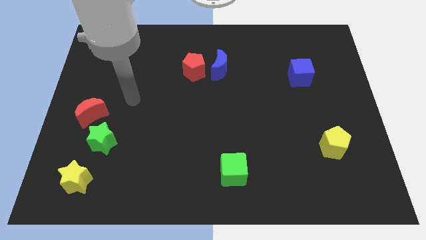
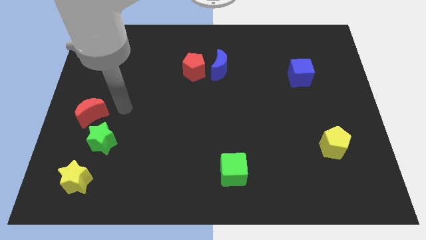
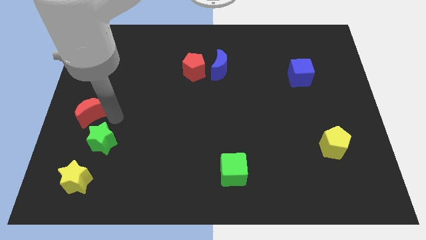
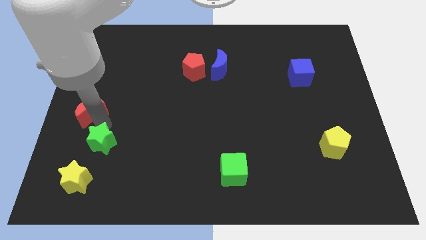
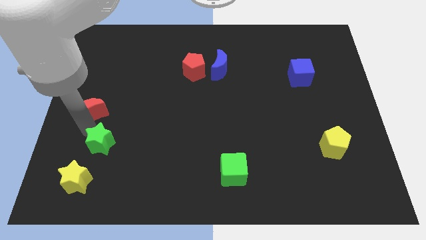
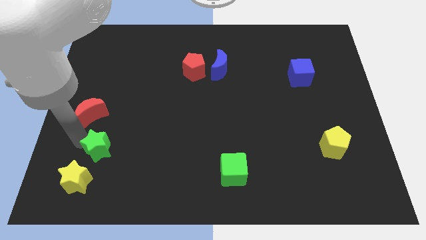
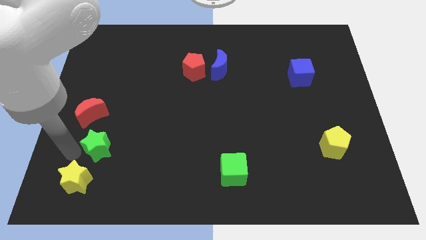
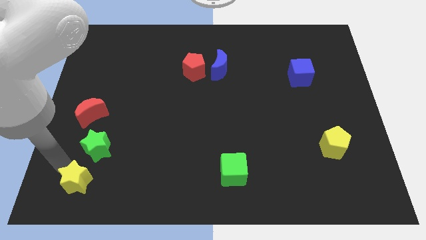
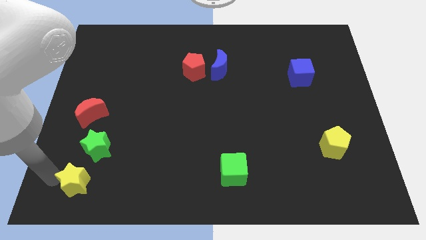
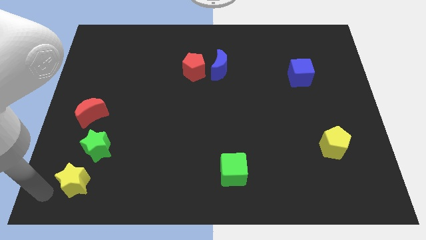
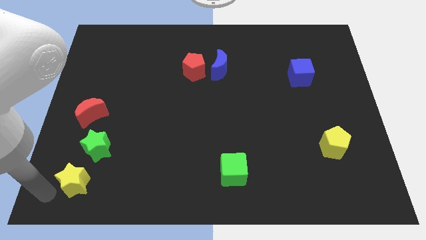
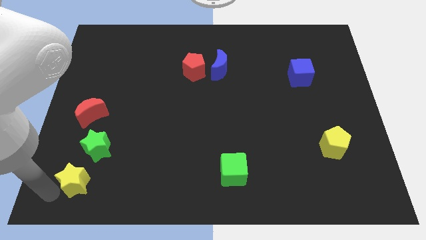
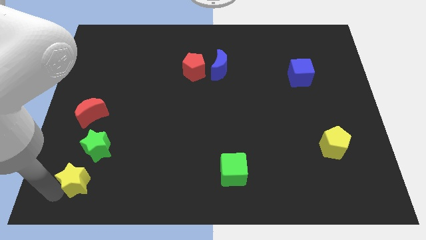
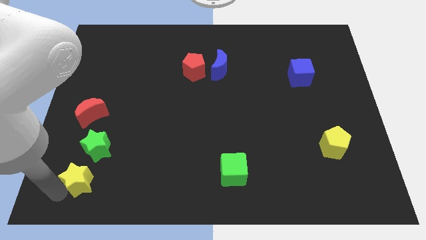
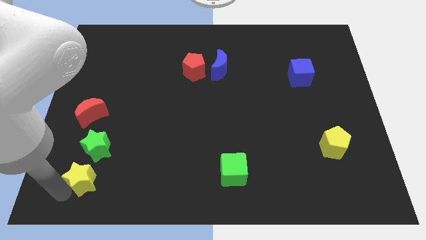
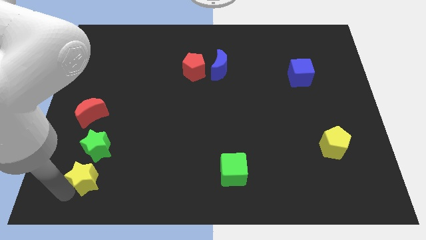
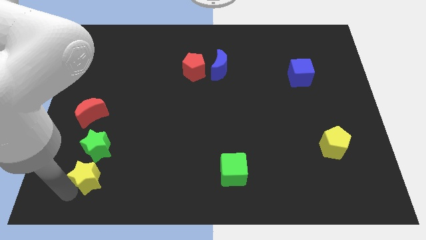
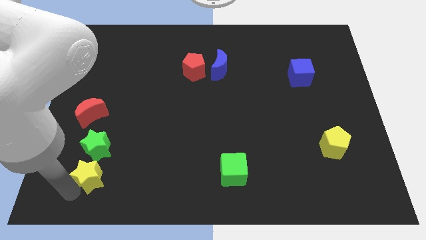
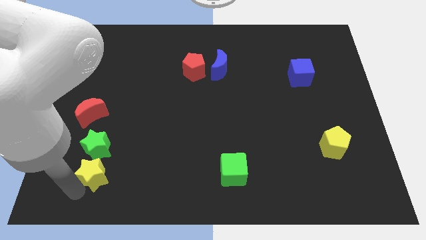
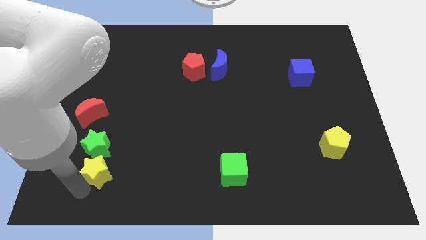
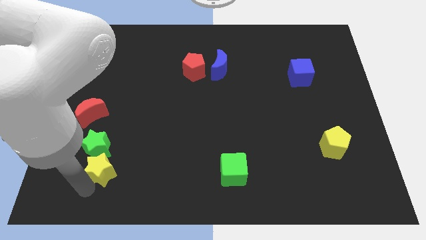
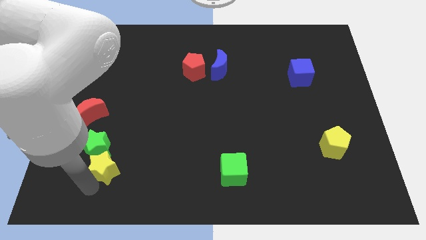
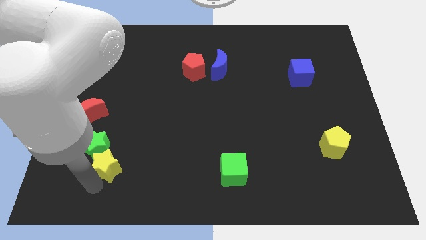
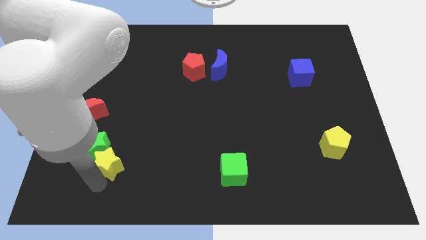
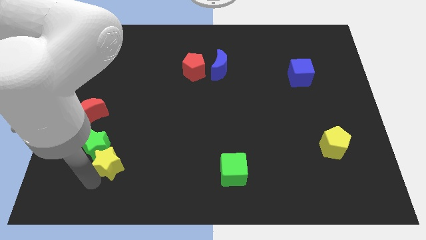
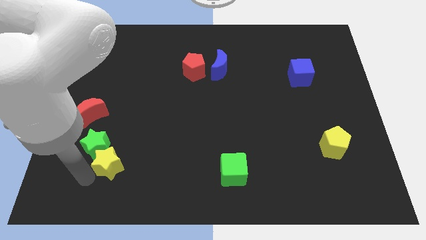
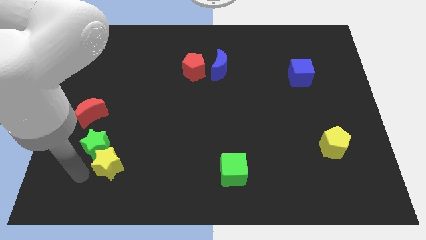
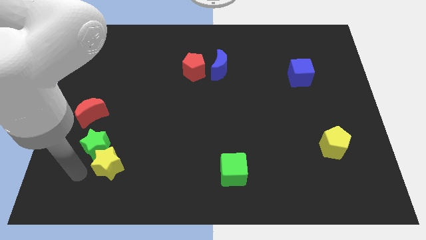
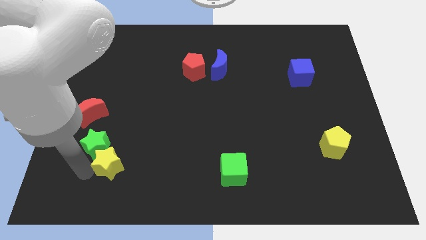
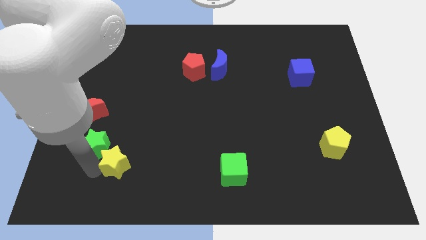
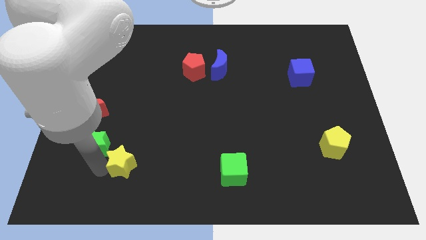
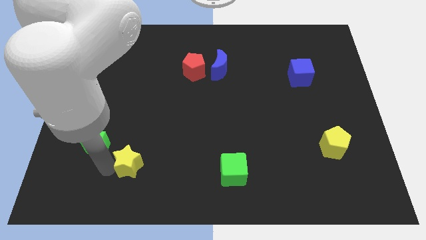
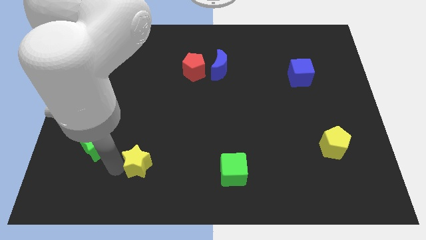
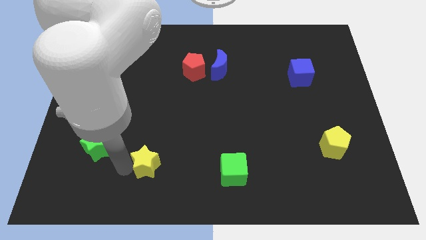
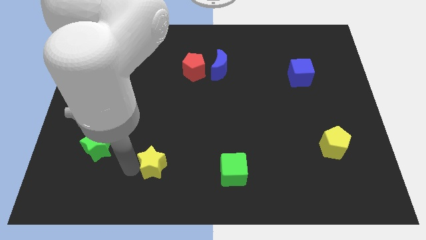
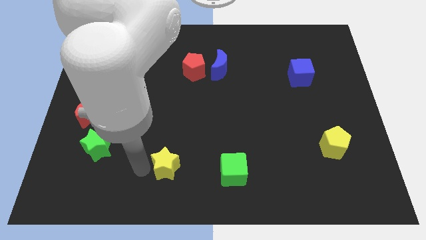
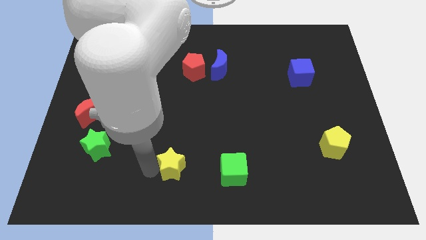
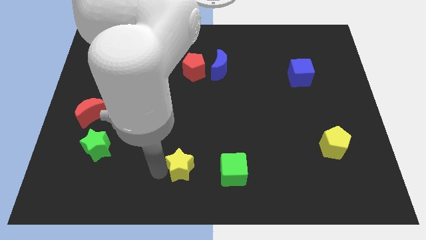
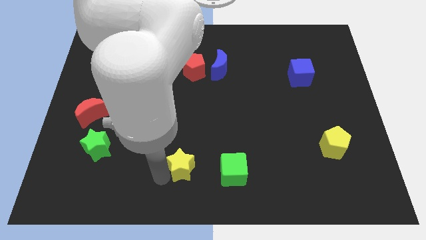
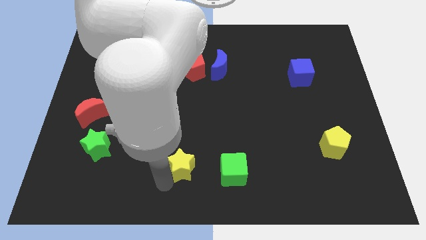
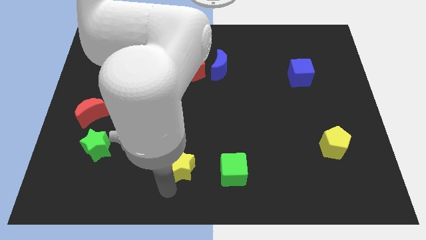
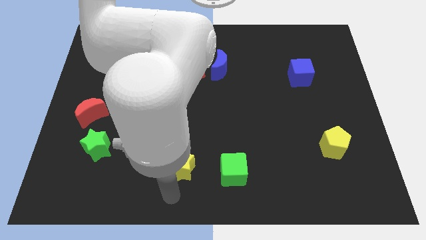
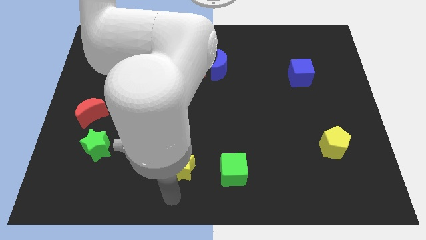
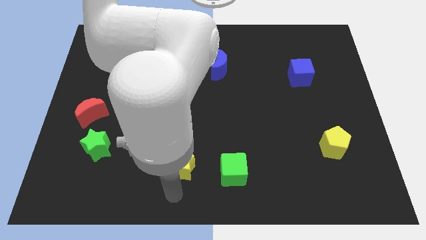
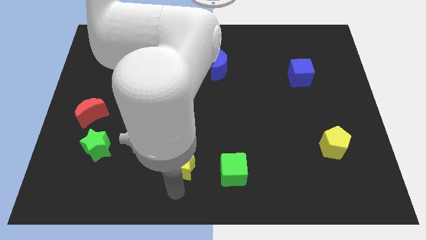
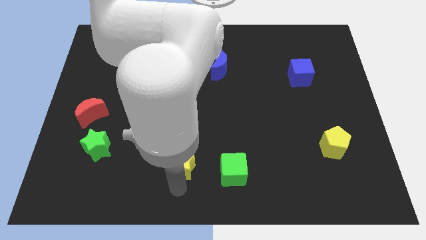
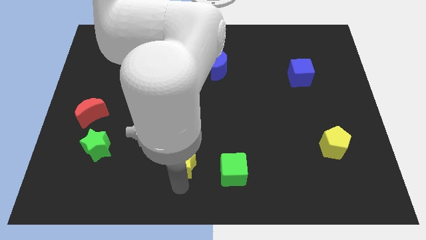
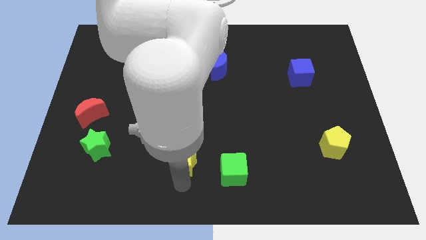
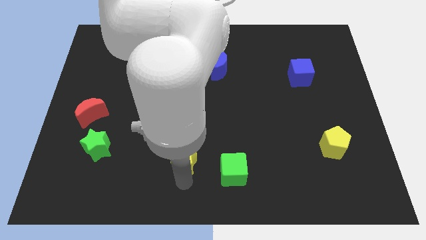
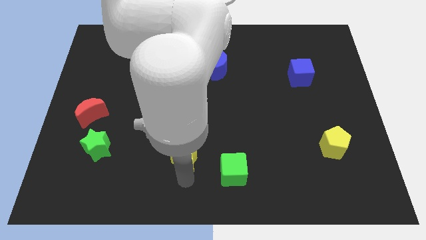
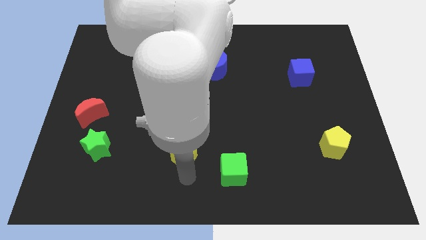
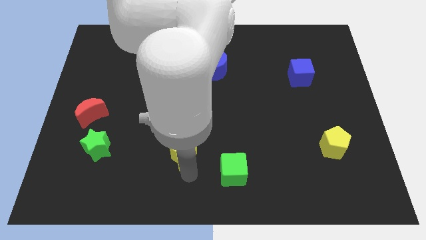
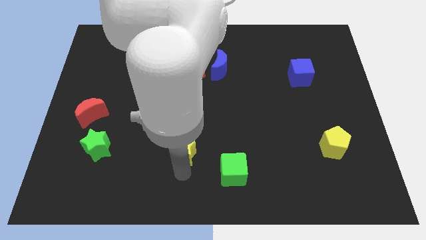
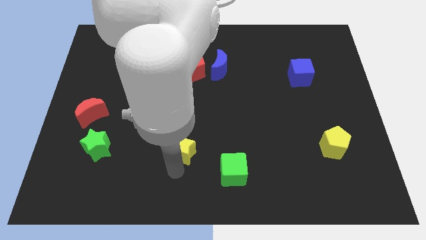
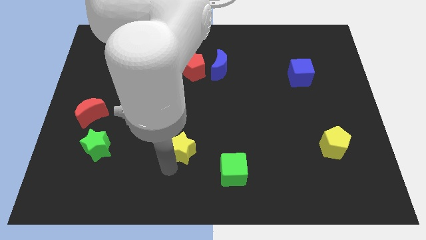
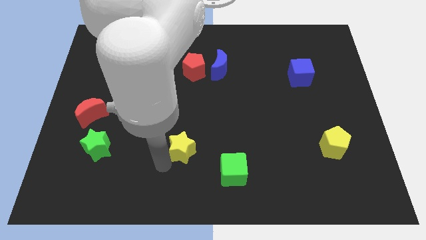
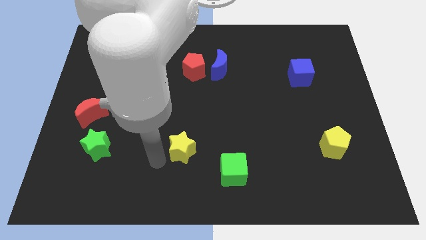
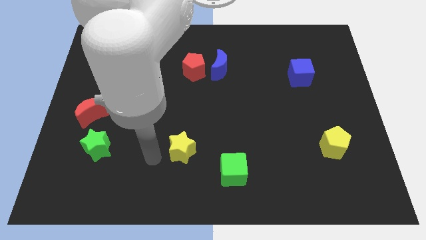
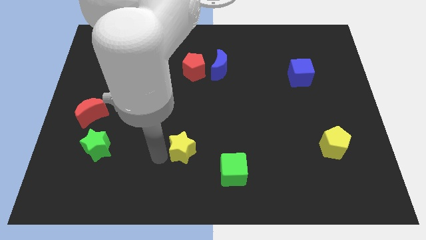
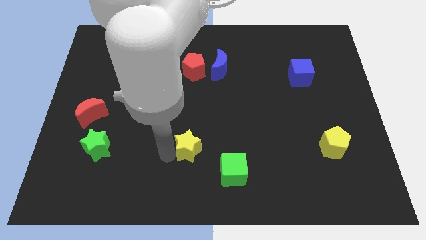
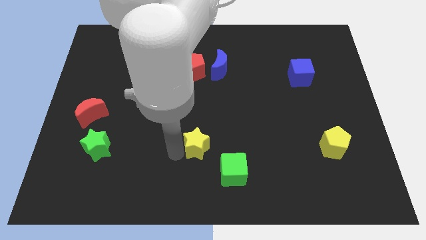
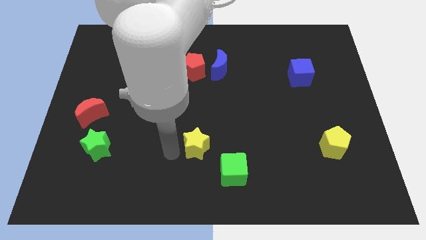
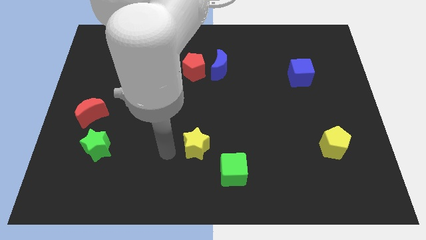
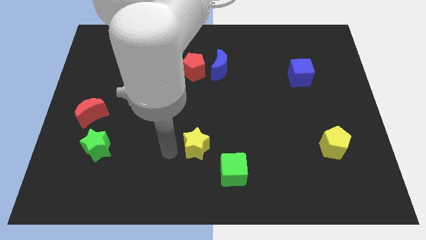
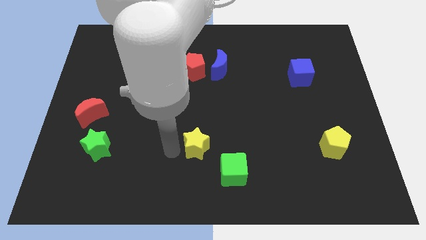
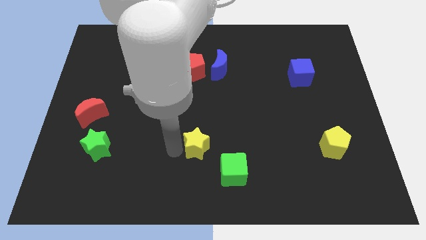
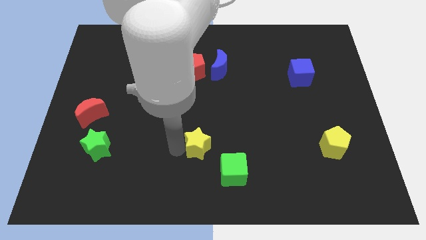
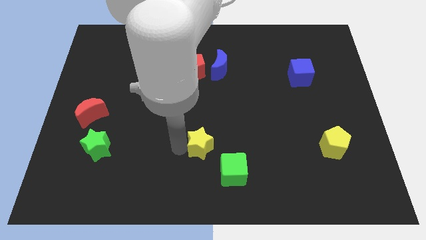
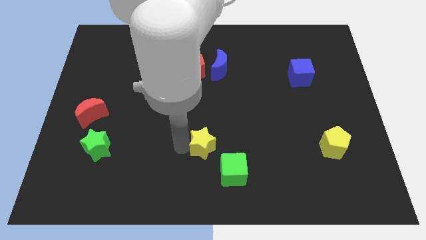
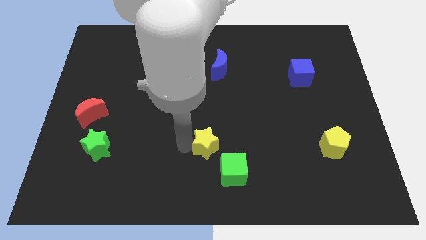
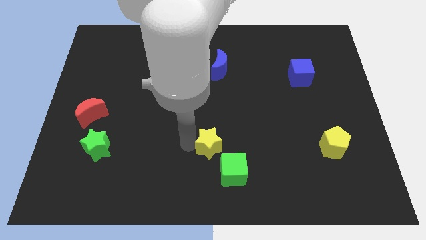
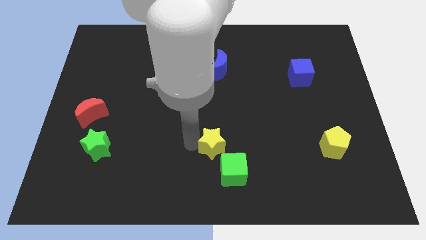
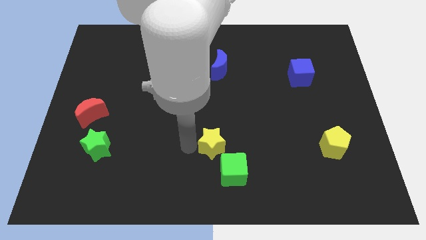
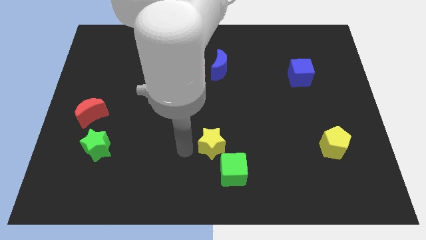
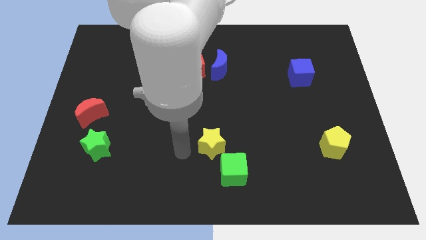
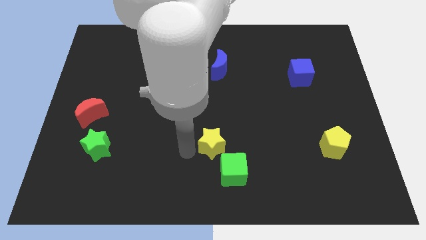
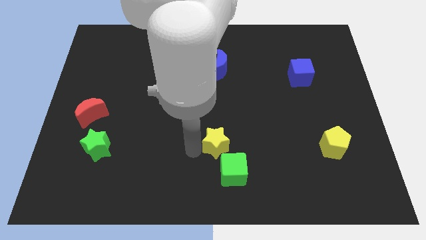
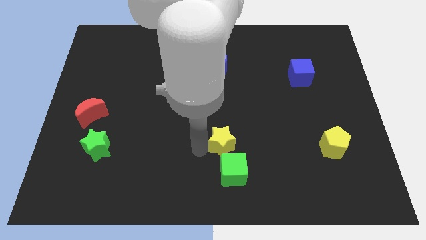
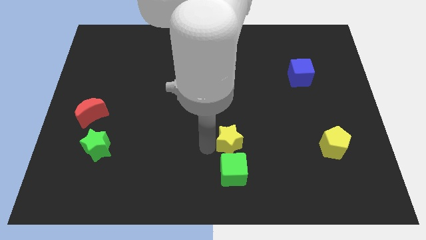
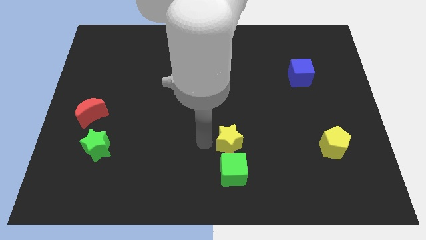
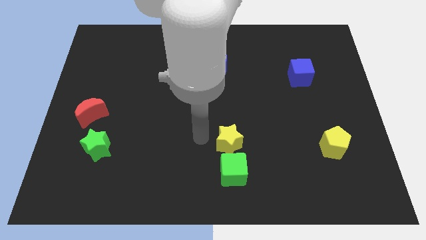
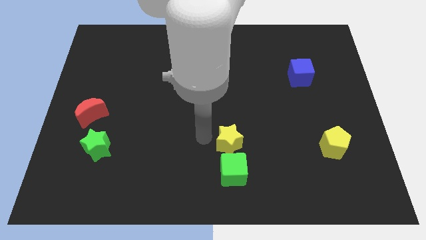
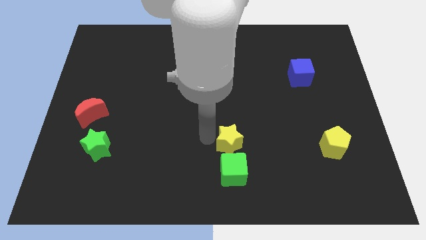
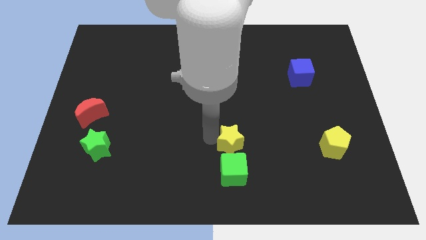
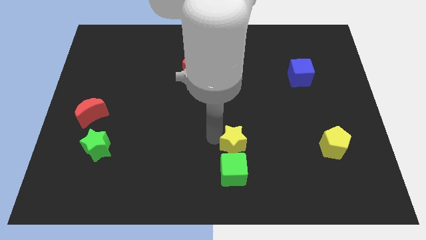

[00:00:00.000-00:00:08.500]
push the yellow star diagonally up and to the right of the green cube
